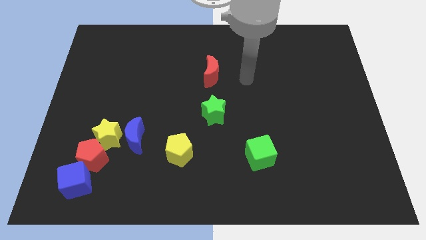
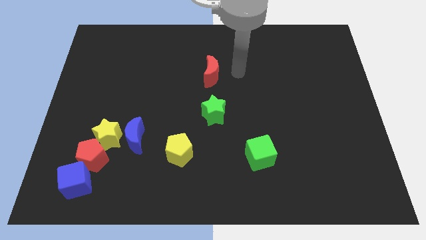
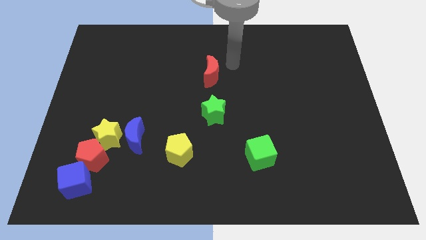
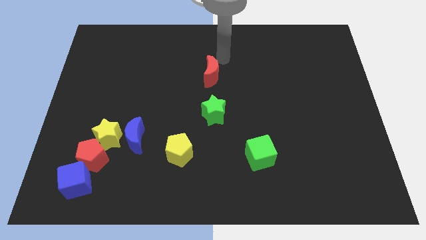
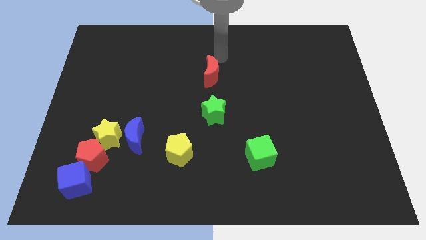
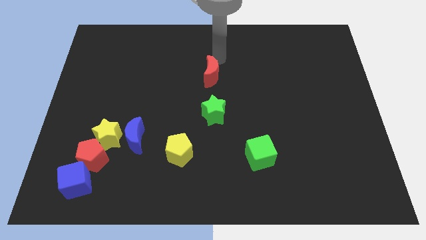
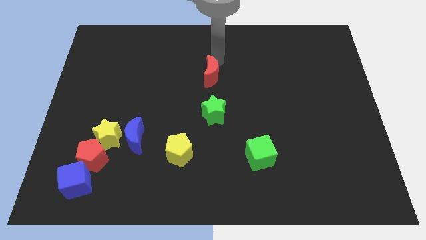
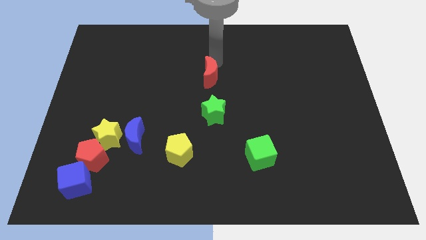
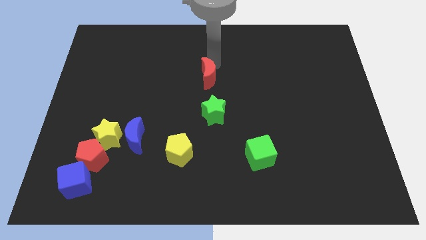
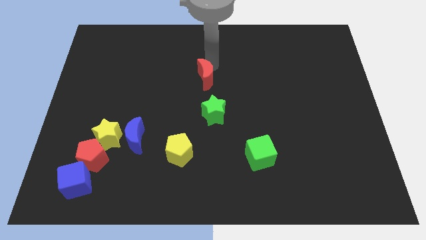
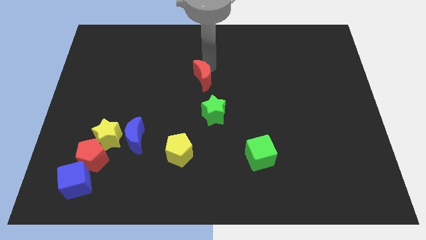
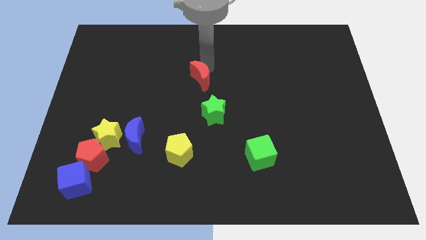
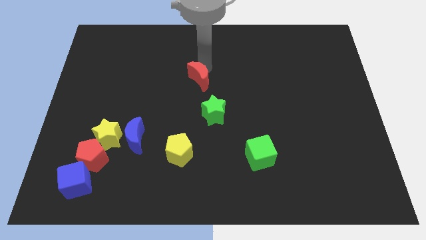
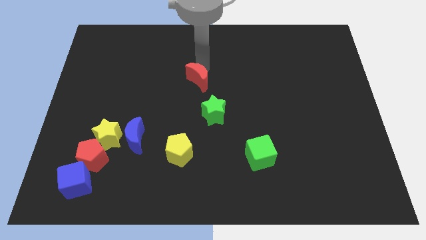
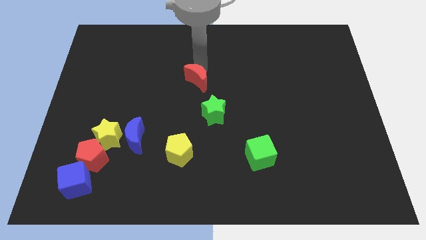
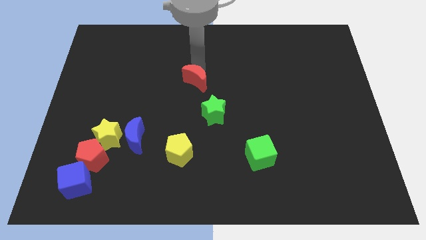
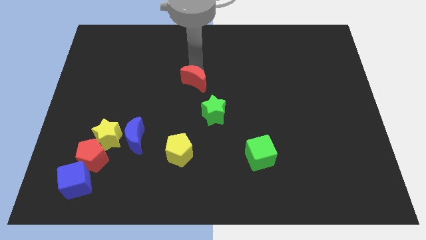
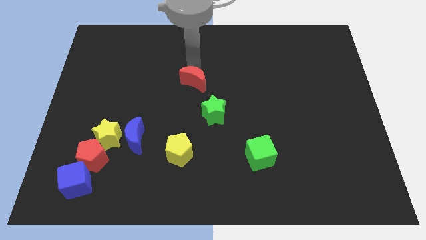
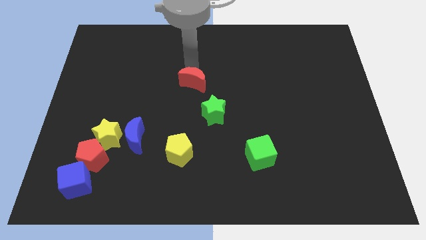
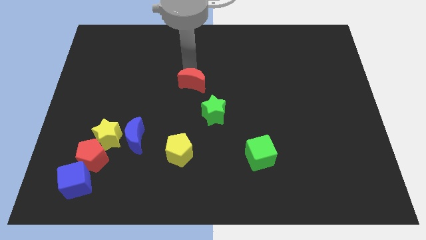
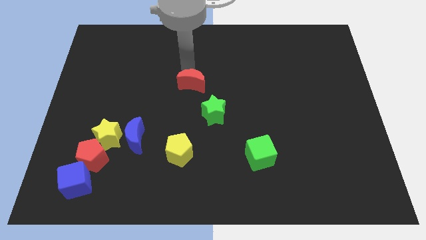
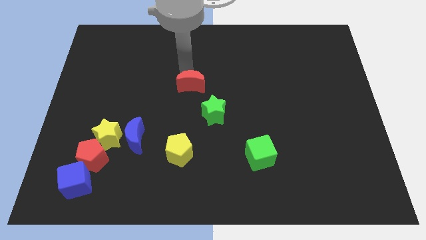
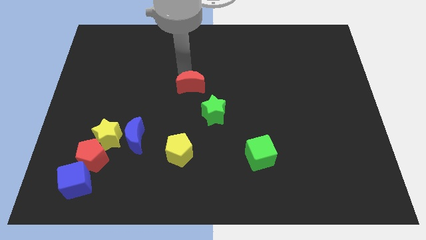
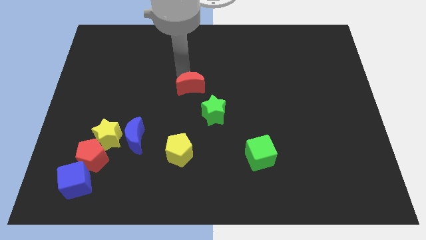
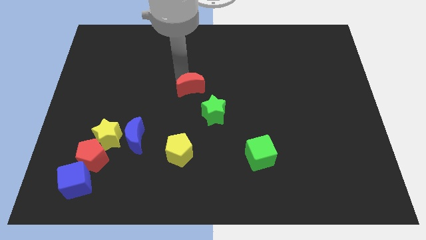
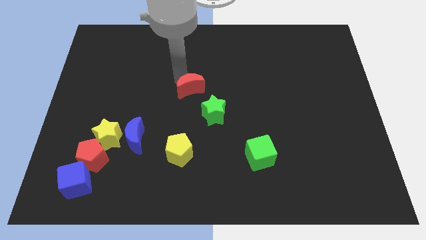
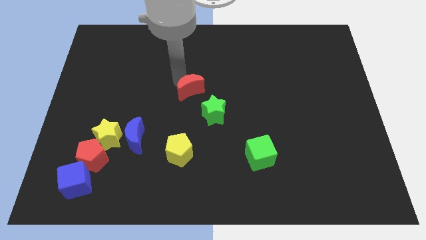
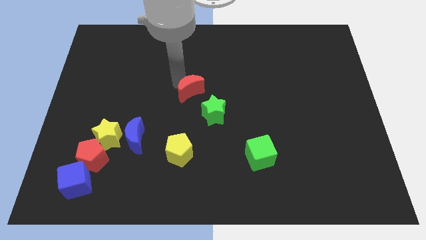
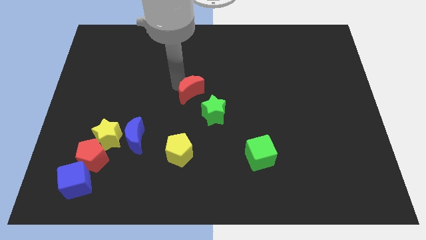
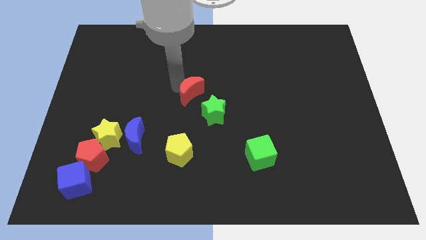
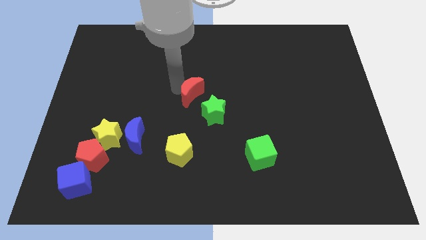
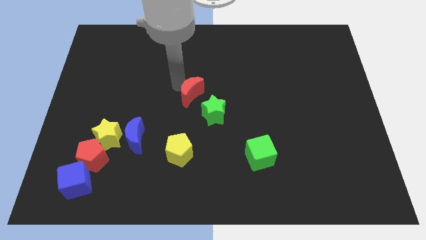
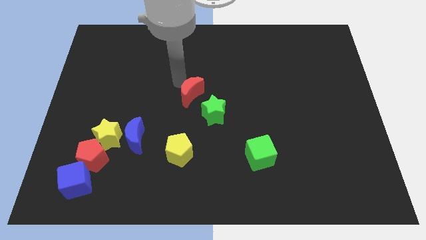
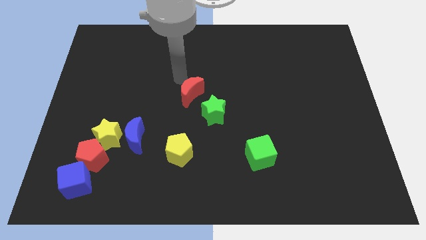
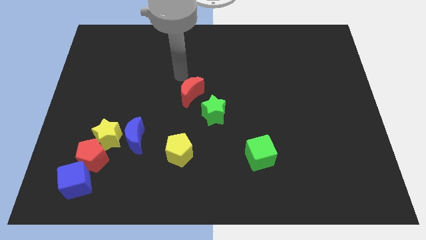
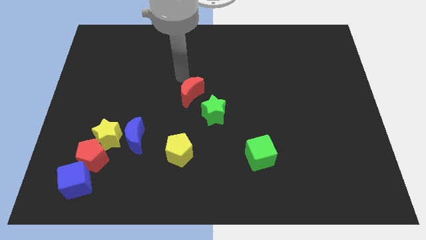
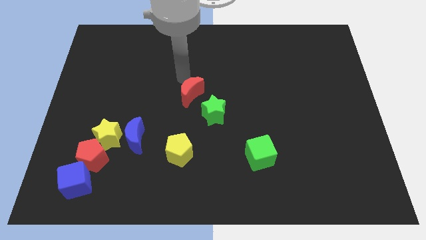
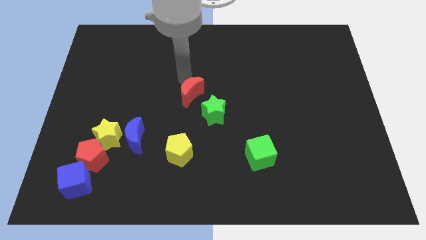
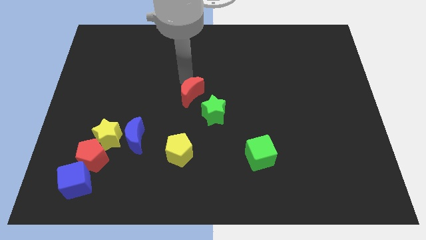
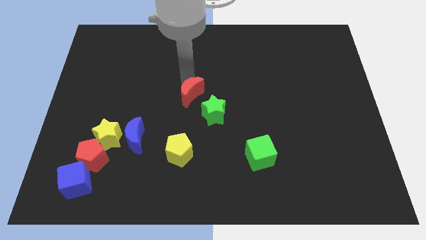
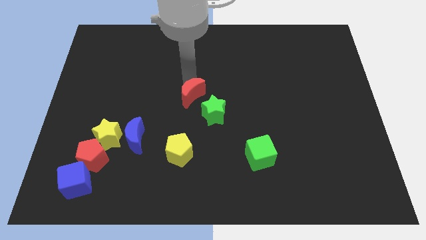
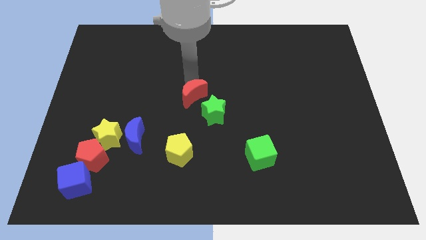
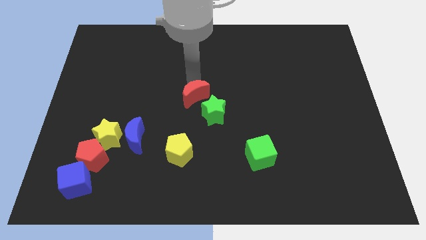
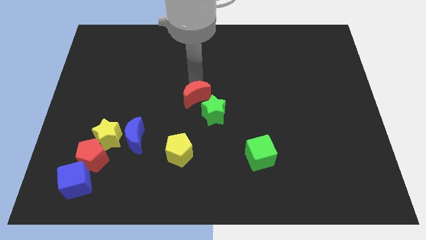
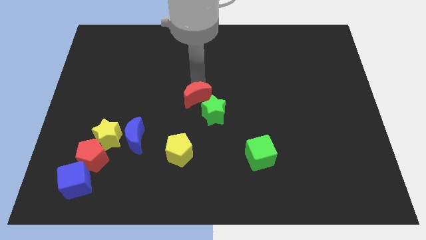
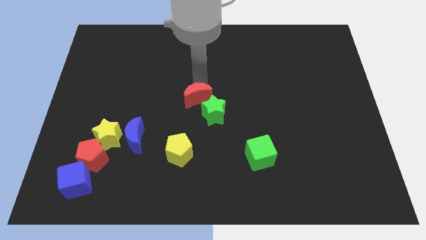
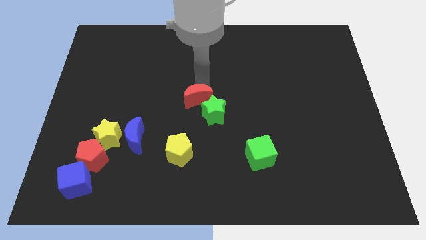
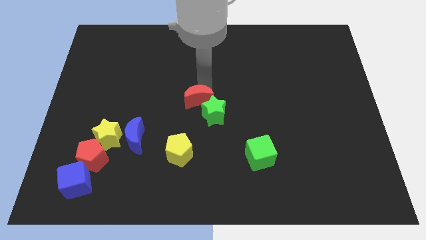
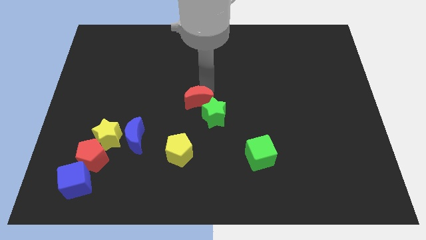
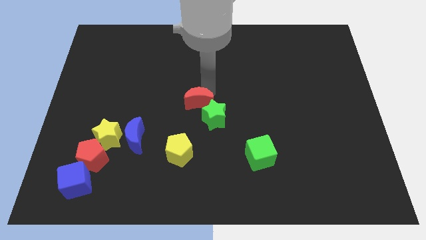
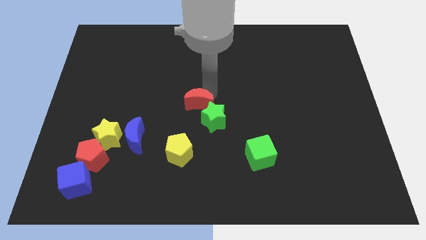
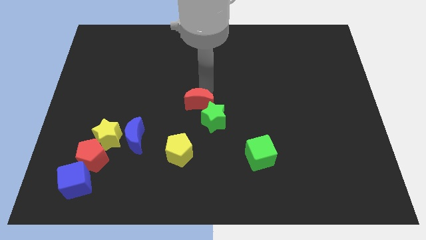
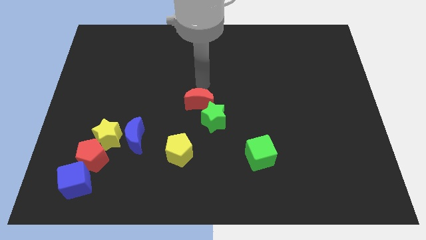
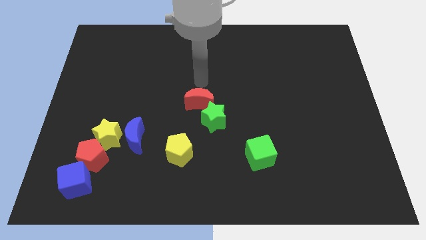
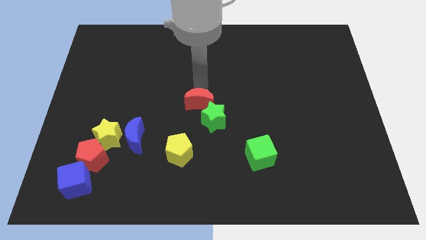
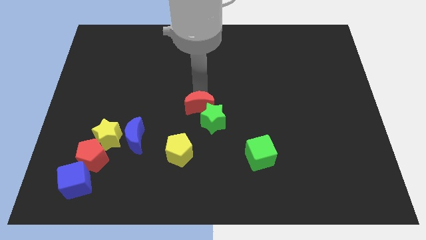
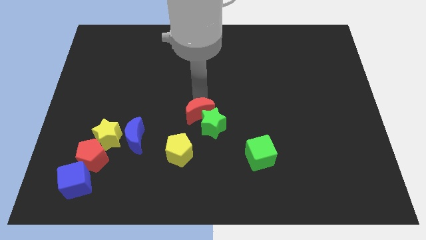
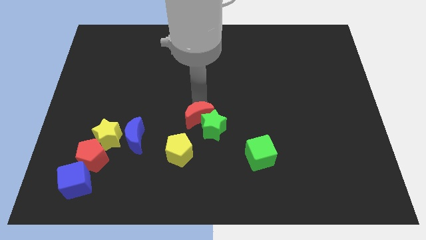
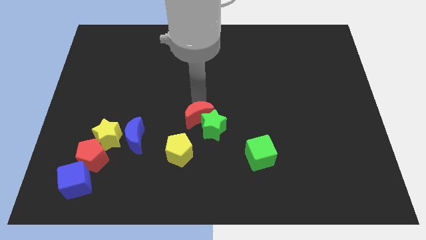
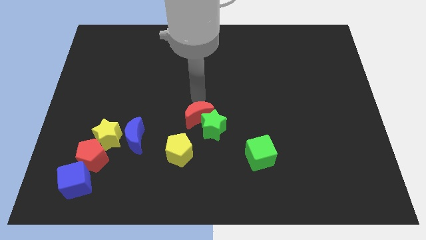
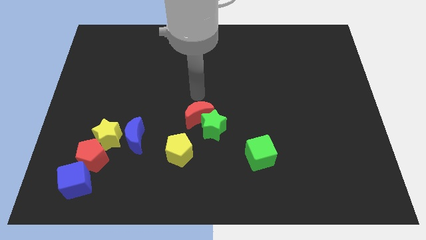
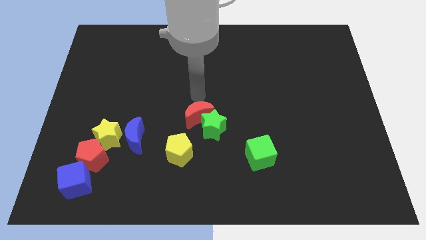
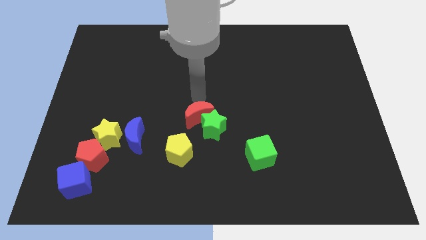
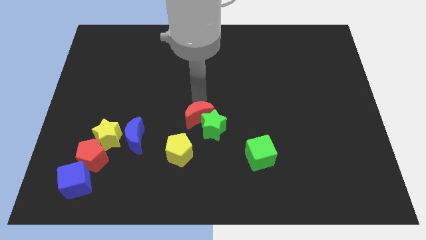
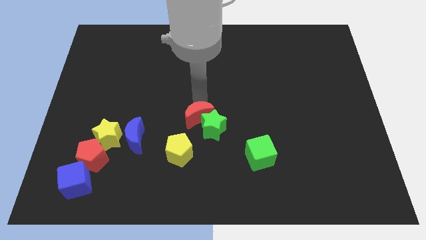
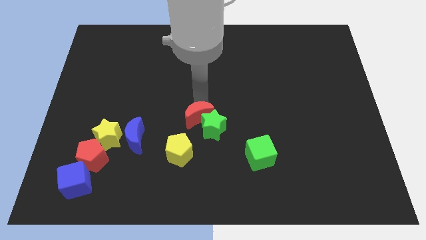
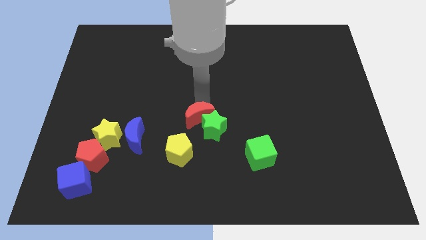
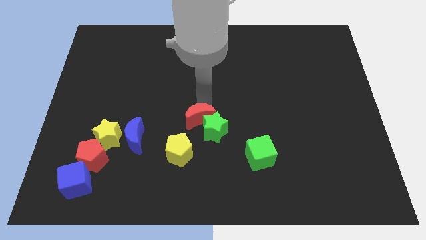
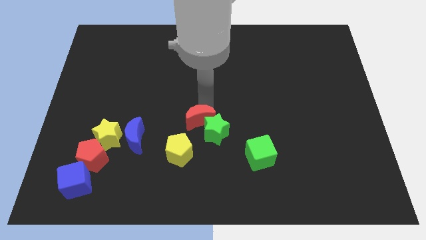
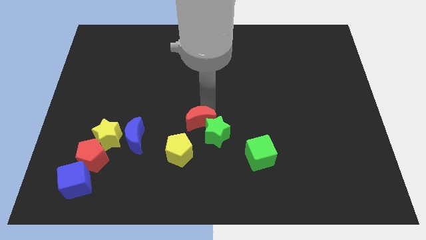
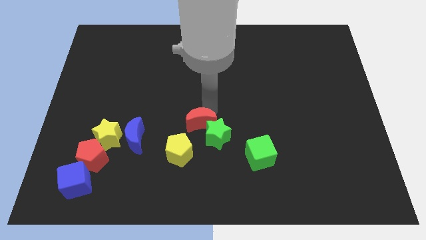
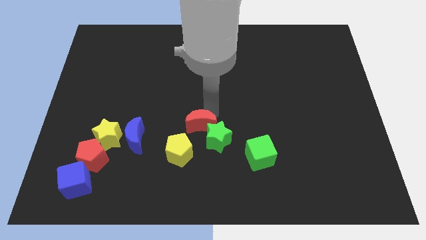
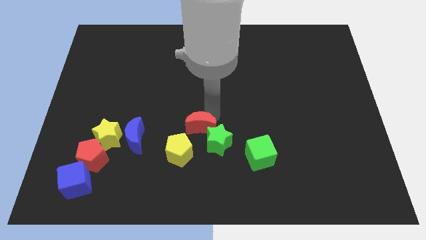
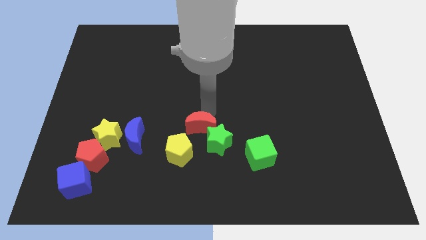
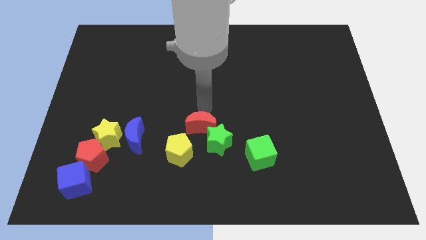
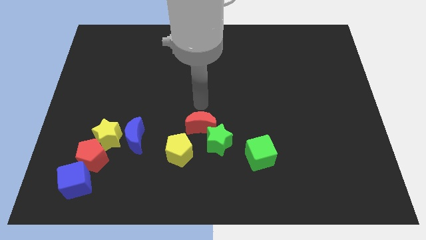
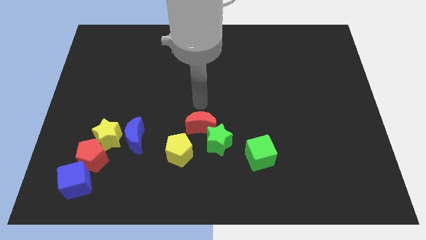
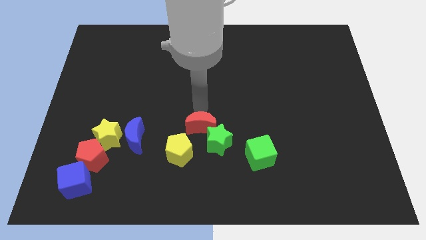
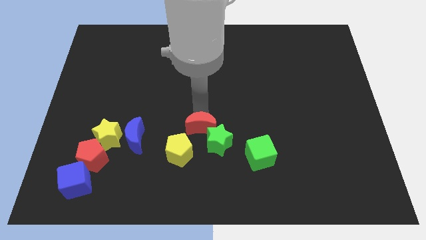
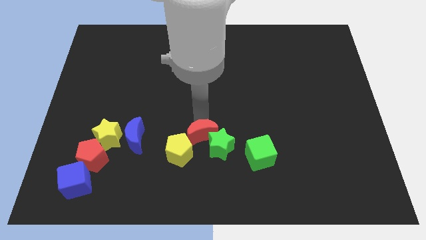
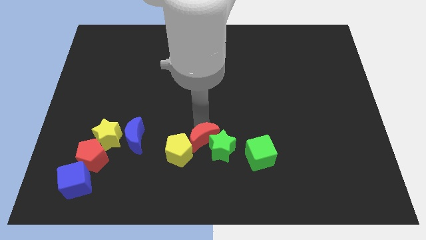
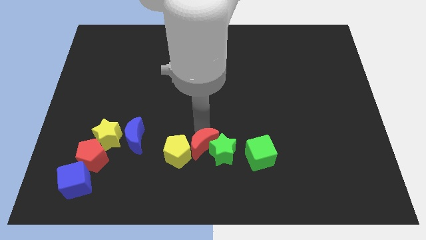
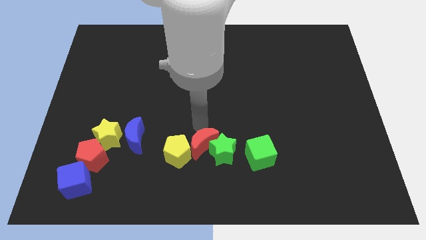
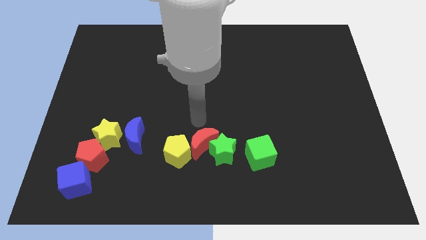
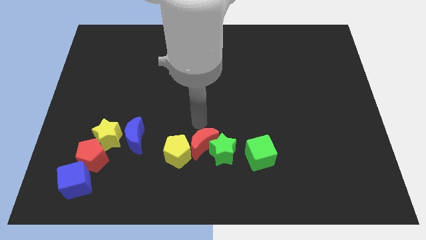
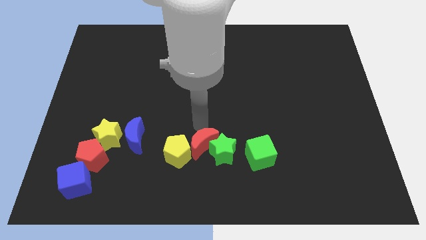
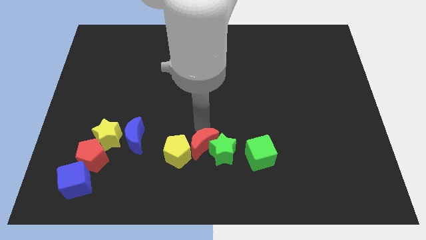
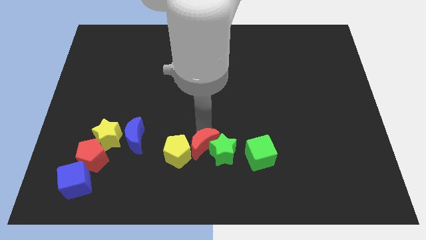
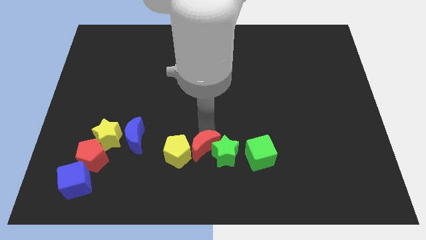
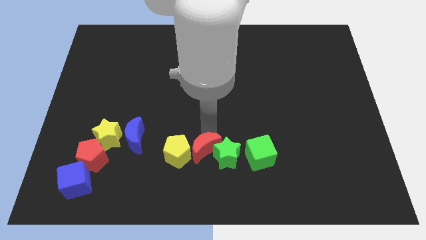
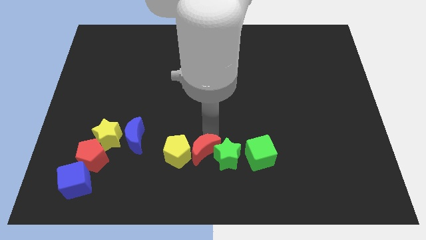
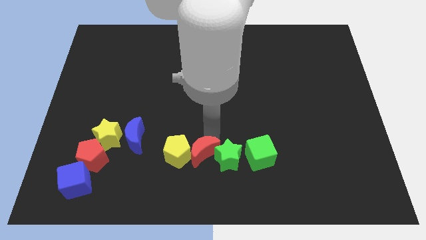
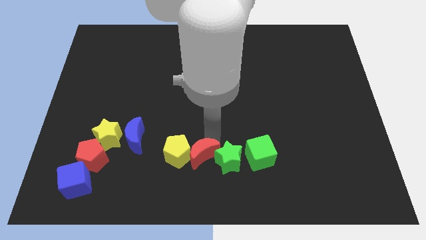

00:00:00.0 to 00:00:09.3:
slide the red moon to the bottom side
